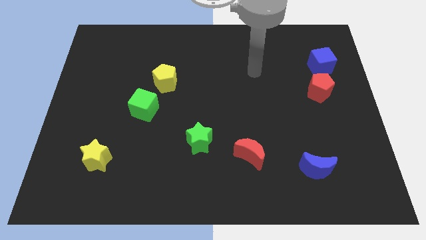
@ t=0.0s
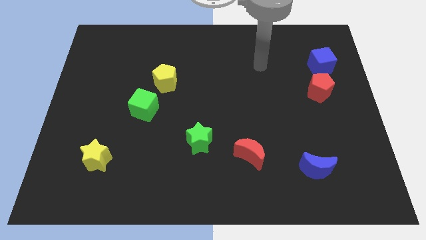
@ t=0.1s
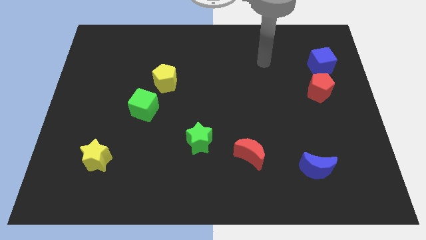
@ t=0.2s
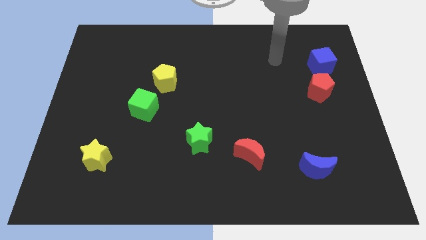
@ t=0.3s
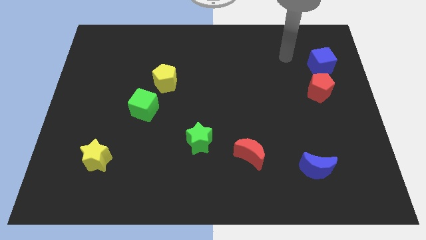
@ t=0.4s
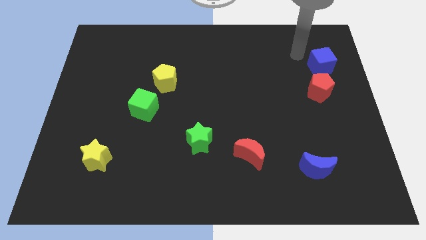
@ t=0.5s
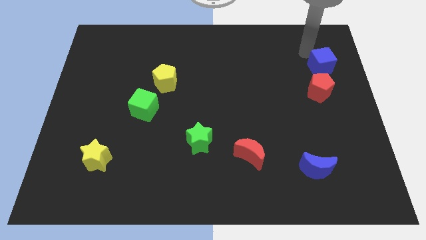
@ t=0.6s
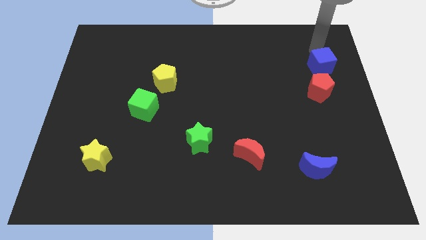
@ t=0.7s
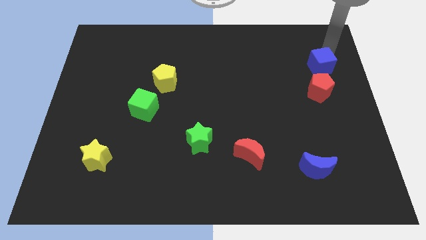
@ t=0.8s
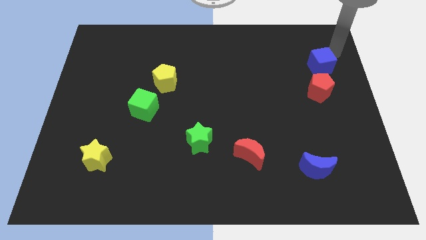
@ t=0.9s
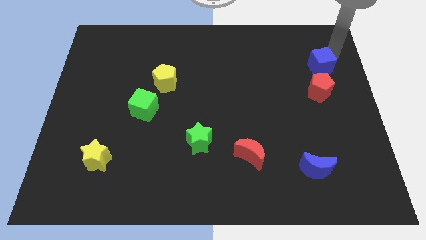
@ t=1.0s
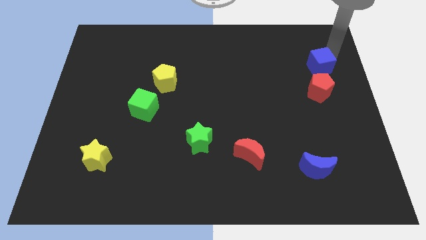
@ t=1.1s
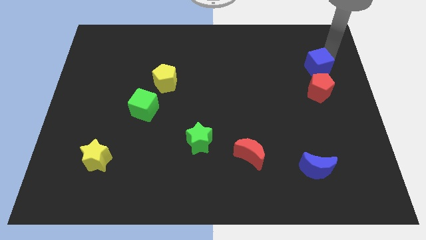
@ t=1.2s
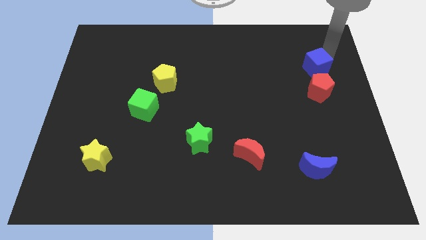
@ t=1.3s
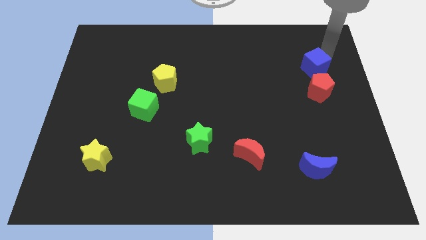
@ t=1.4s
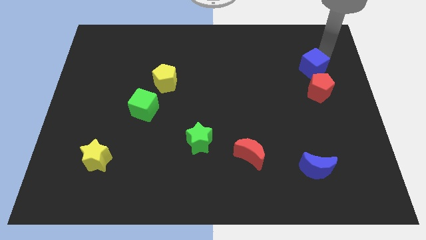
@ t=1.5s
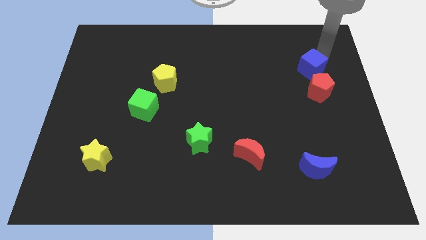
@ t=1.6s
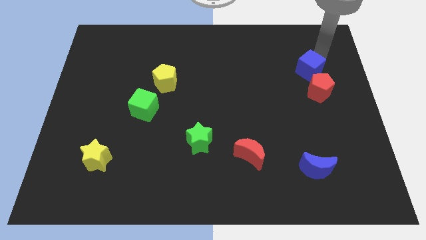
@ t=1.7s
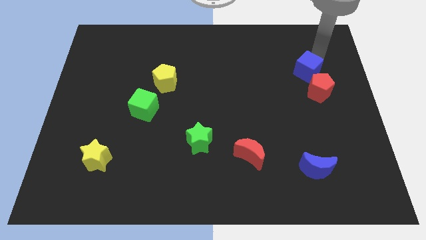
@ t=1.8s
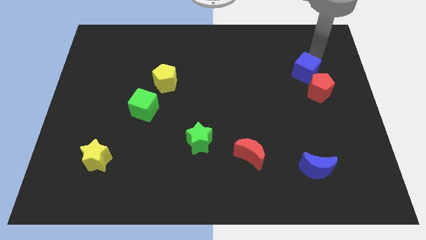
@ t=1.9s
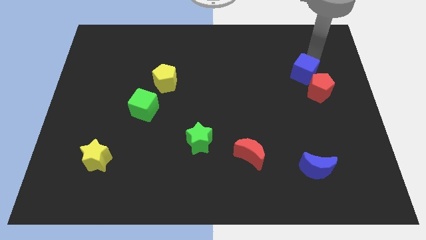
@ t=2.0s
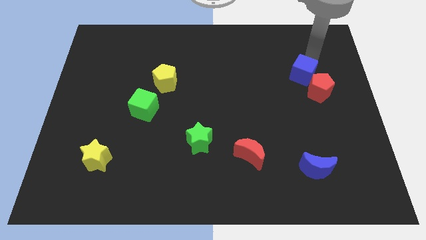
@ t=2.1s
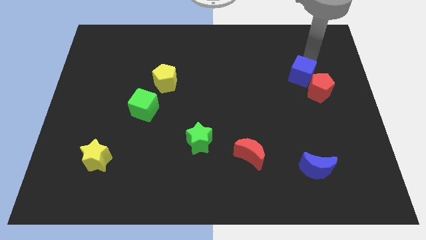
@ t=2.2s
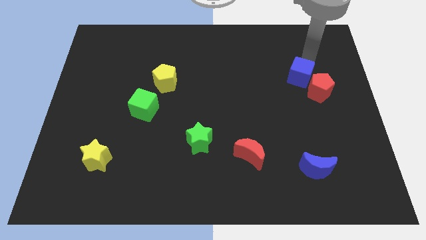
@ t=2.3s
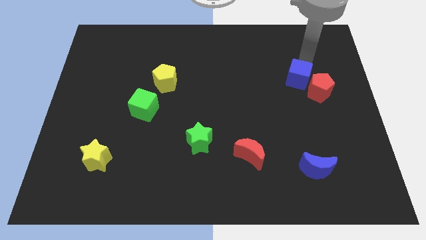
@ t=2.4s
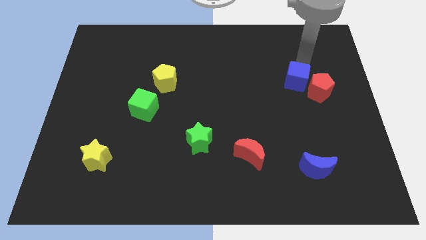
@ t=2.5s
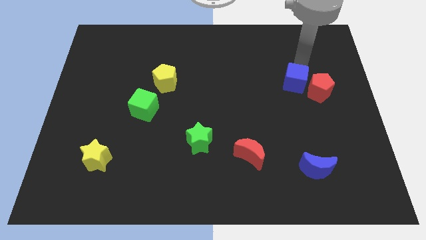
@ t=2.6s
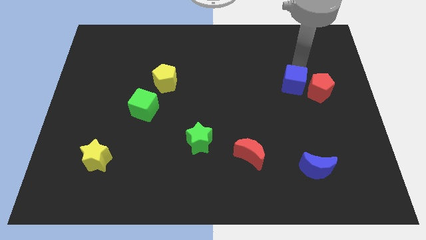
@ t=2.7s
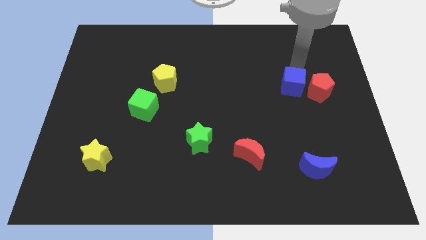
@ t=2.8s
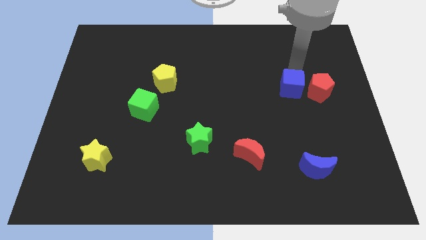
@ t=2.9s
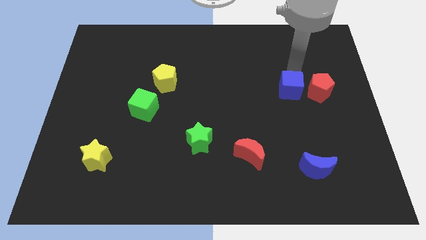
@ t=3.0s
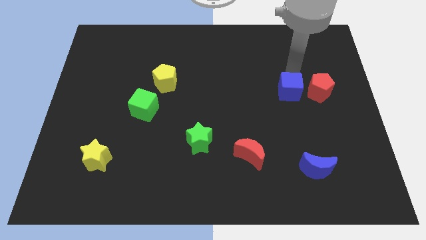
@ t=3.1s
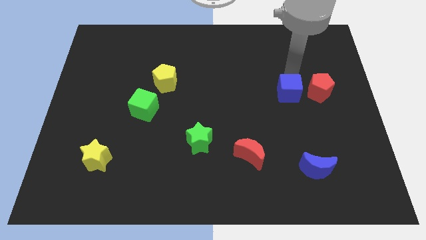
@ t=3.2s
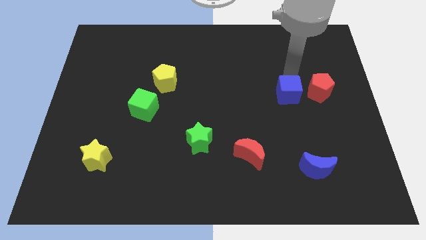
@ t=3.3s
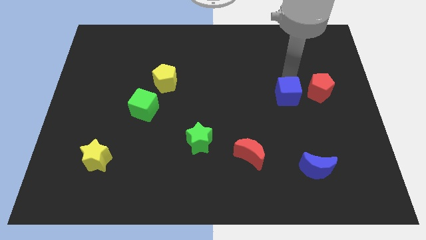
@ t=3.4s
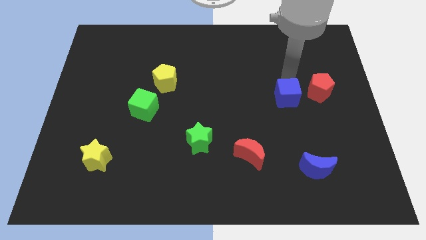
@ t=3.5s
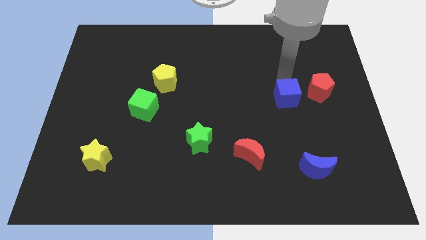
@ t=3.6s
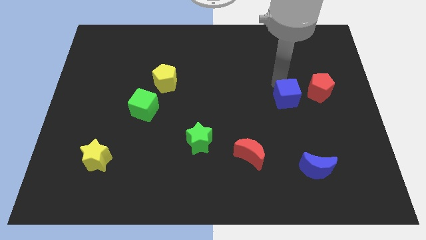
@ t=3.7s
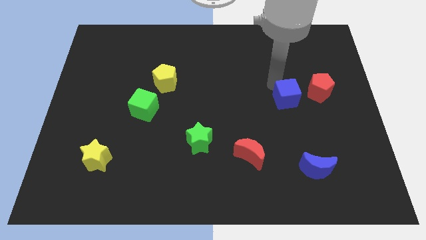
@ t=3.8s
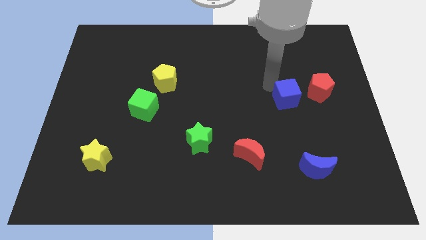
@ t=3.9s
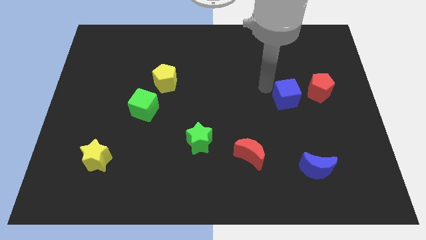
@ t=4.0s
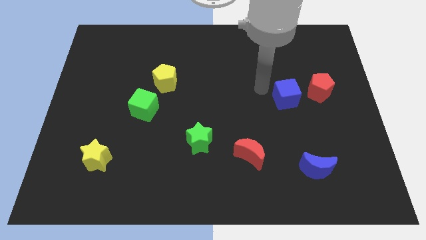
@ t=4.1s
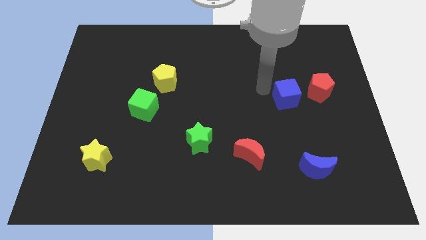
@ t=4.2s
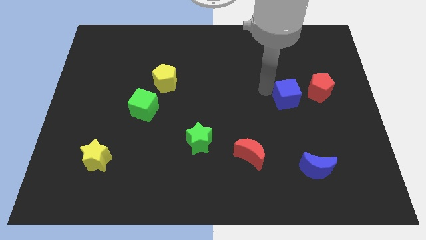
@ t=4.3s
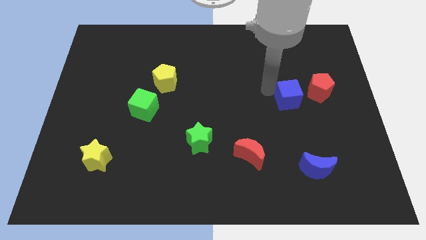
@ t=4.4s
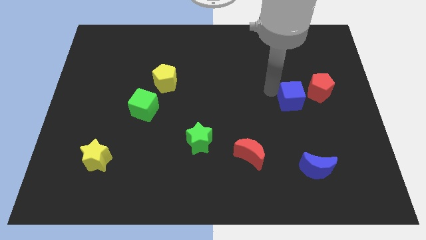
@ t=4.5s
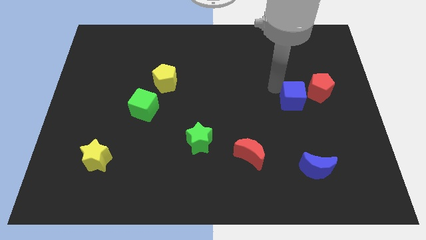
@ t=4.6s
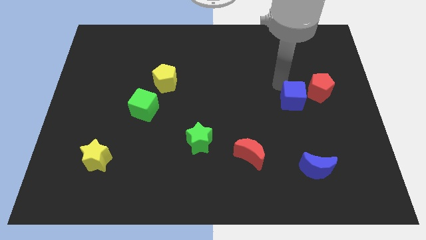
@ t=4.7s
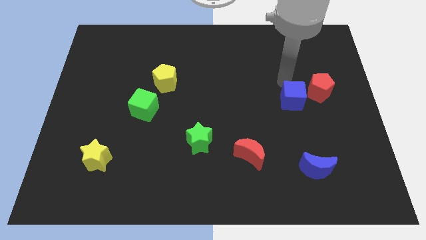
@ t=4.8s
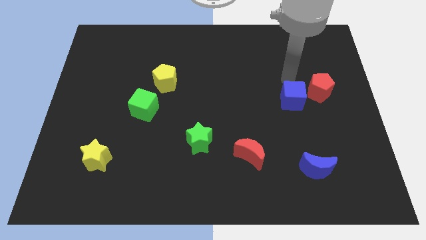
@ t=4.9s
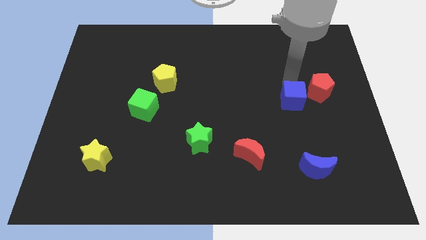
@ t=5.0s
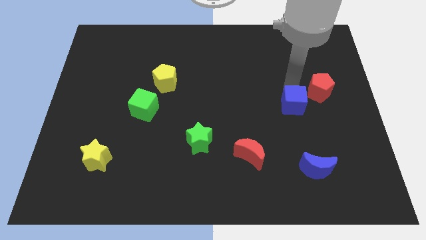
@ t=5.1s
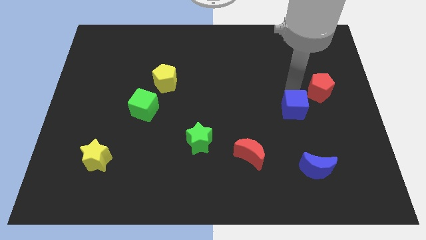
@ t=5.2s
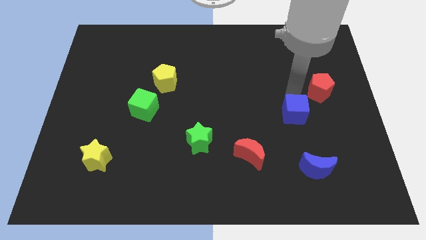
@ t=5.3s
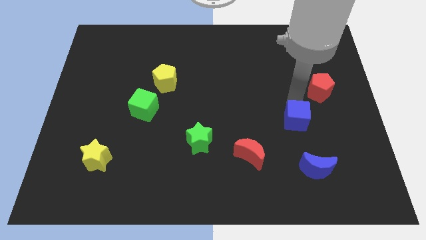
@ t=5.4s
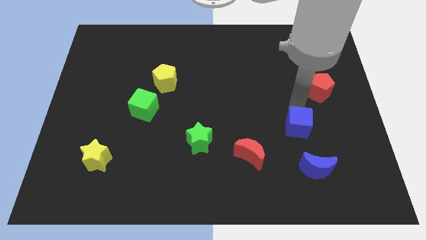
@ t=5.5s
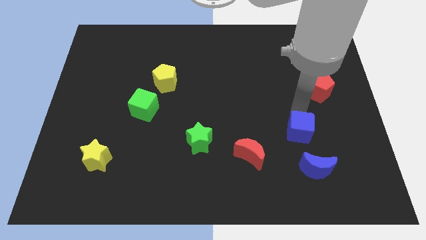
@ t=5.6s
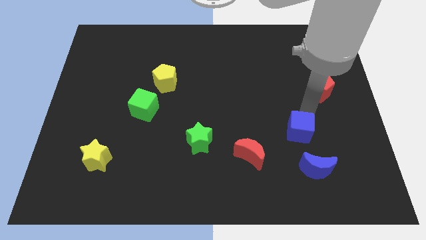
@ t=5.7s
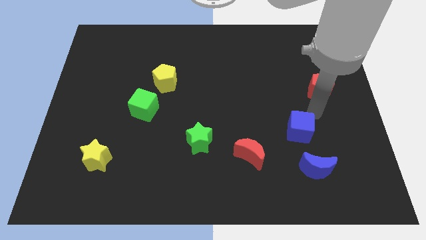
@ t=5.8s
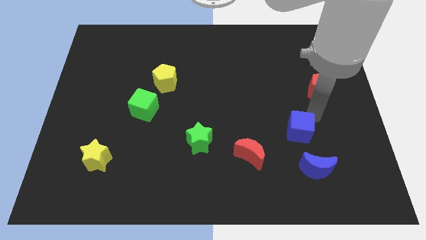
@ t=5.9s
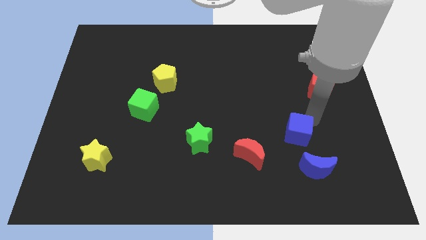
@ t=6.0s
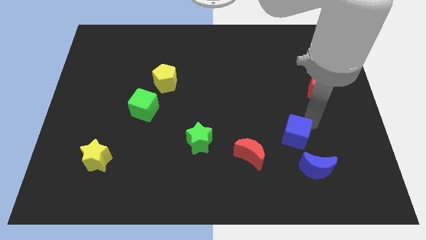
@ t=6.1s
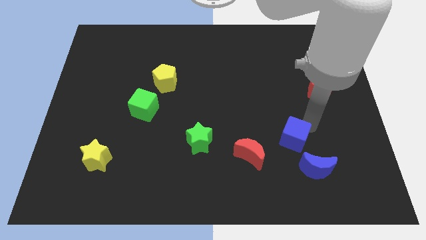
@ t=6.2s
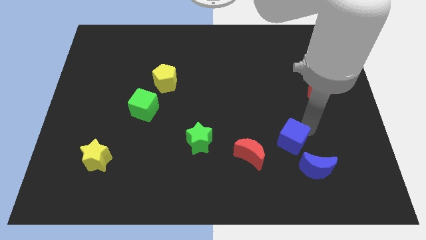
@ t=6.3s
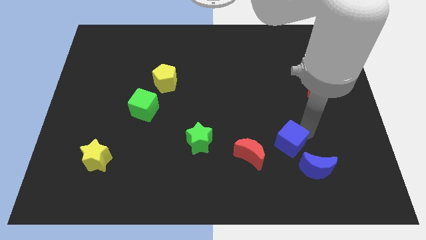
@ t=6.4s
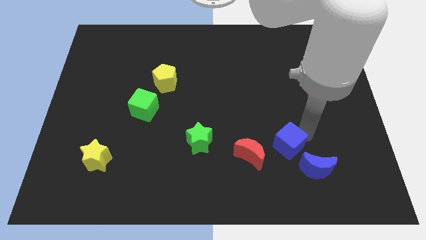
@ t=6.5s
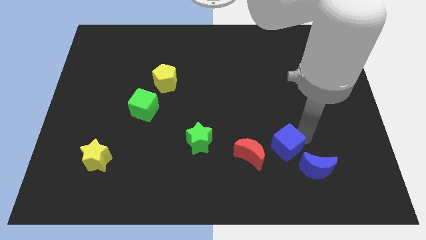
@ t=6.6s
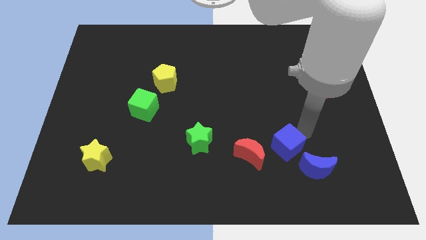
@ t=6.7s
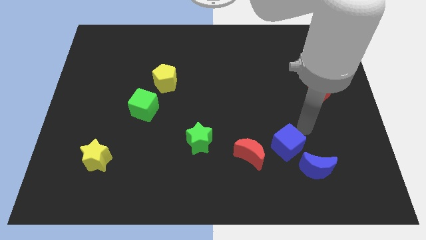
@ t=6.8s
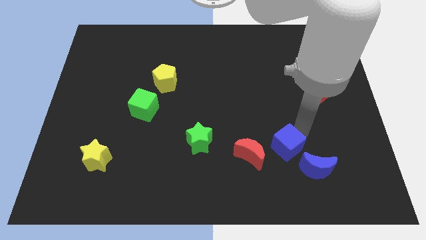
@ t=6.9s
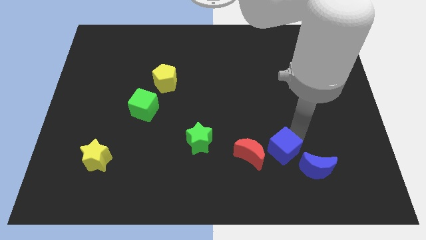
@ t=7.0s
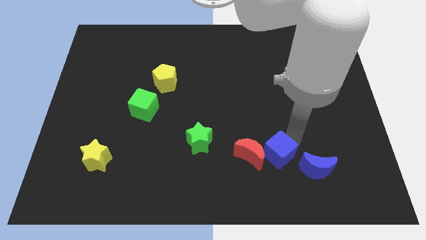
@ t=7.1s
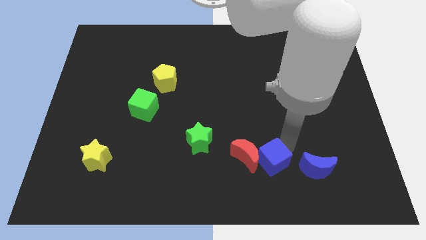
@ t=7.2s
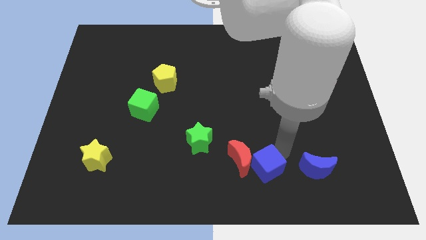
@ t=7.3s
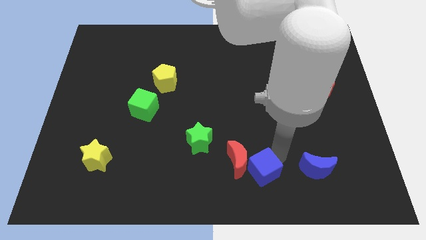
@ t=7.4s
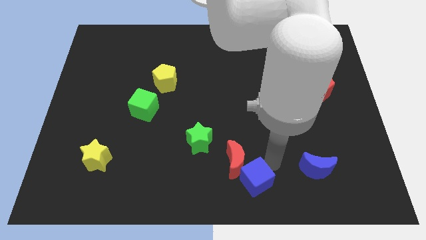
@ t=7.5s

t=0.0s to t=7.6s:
slide the blue cube to the bottom
